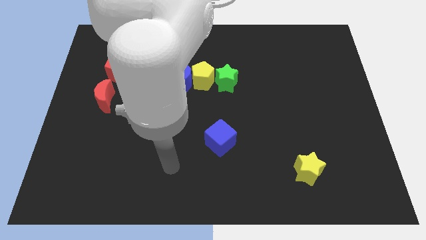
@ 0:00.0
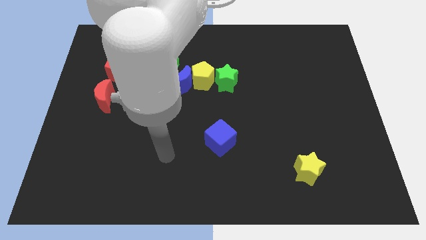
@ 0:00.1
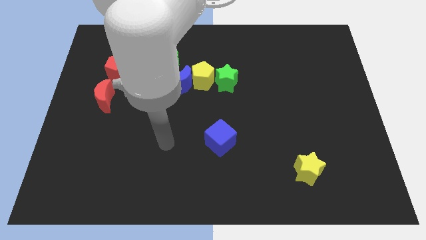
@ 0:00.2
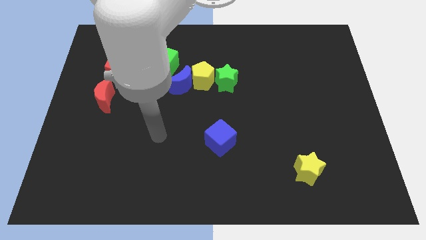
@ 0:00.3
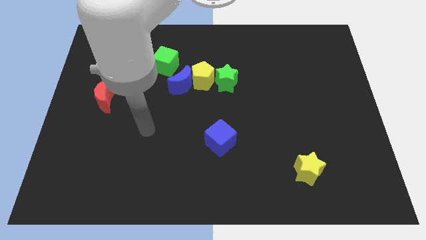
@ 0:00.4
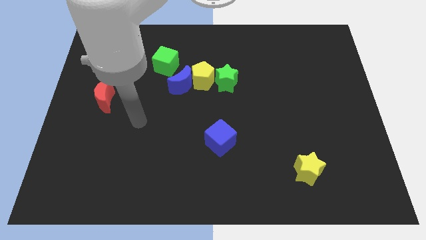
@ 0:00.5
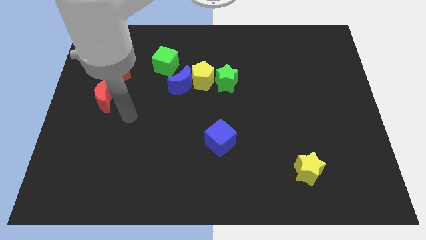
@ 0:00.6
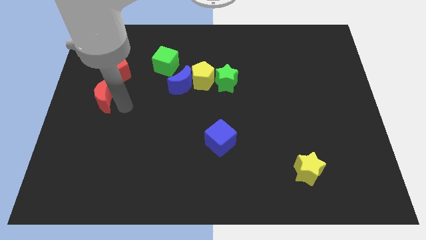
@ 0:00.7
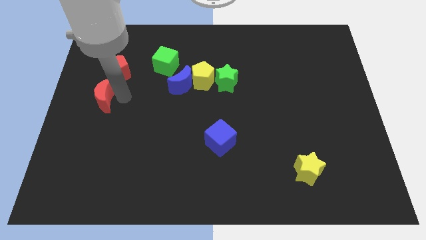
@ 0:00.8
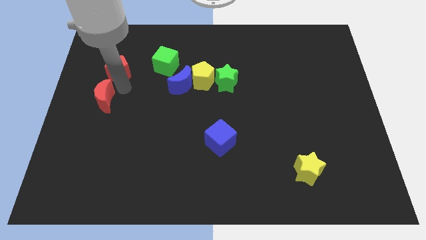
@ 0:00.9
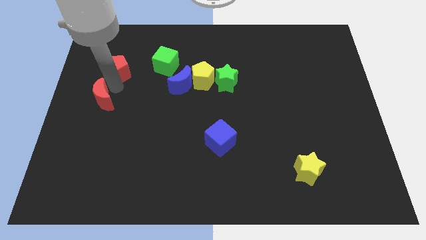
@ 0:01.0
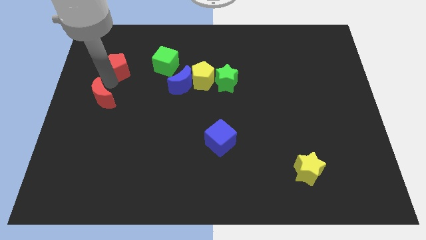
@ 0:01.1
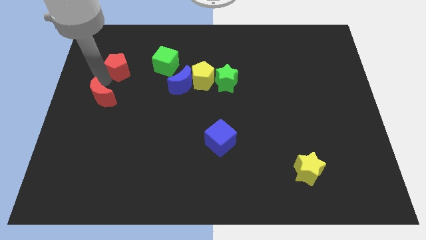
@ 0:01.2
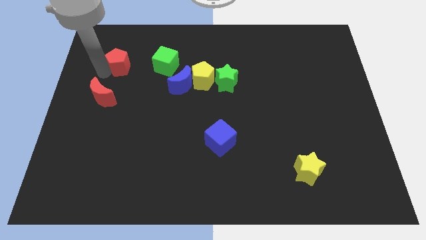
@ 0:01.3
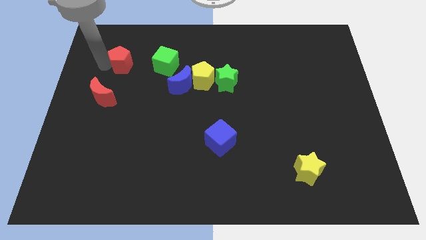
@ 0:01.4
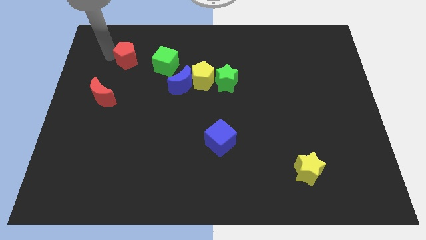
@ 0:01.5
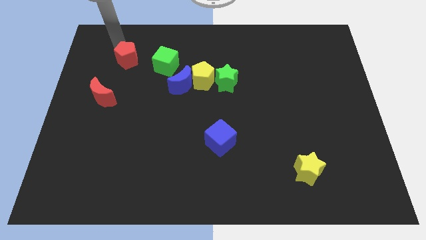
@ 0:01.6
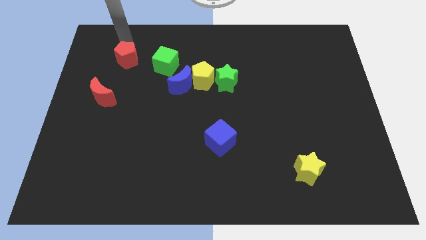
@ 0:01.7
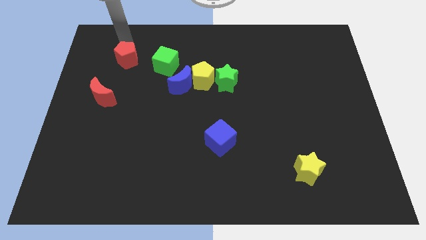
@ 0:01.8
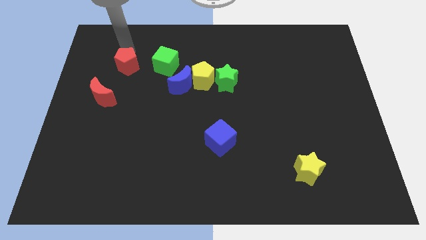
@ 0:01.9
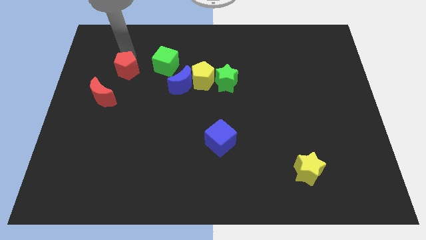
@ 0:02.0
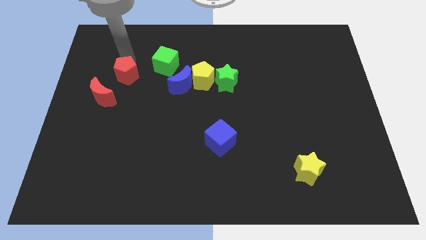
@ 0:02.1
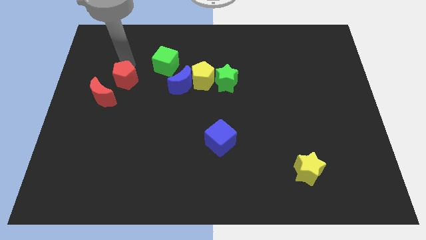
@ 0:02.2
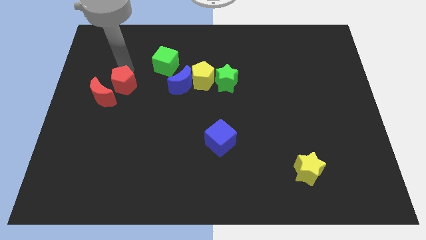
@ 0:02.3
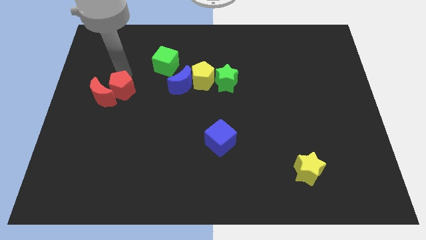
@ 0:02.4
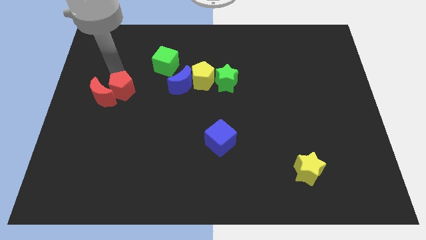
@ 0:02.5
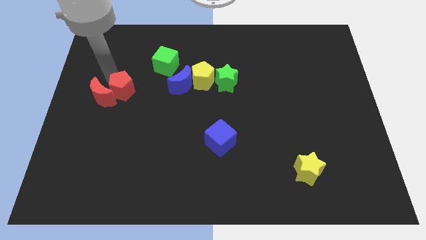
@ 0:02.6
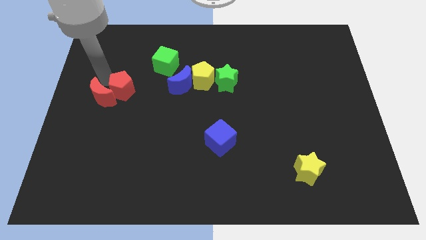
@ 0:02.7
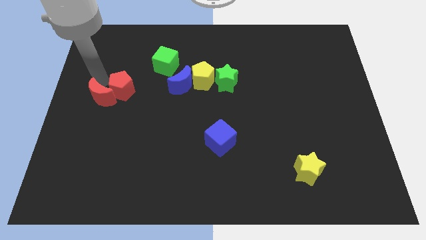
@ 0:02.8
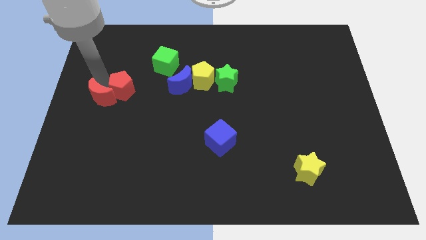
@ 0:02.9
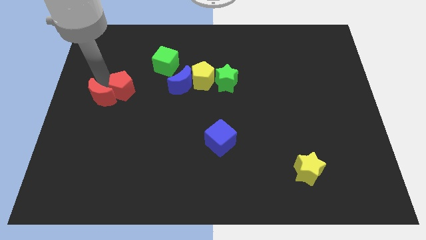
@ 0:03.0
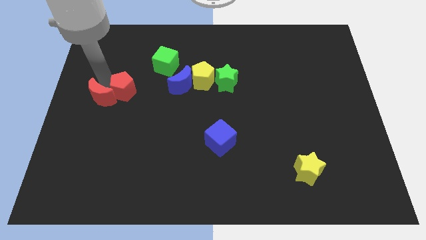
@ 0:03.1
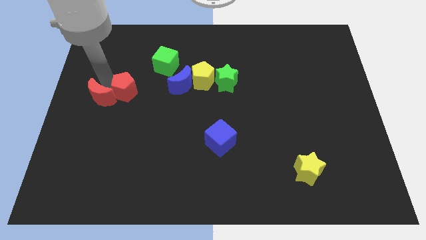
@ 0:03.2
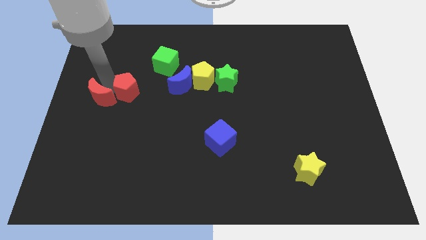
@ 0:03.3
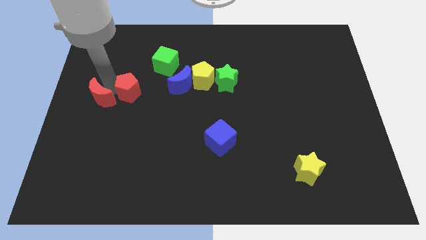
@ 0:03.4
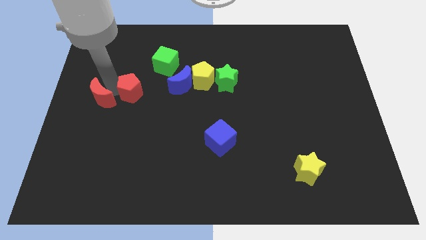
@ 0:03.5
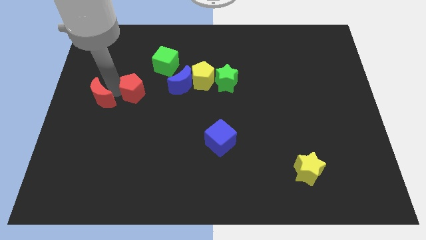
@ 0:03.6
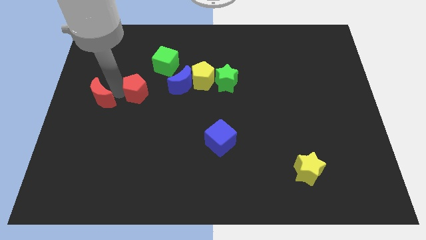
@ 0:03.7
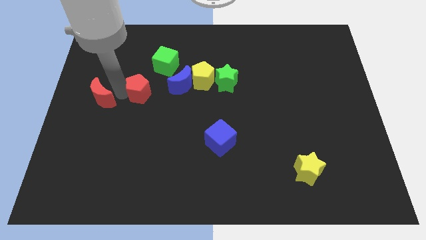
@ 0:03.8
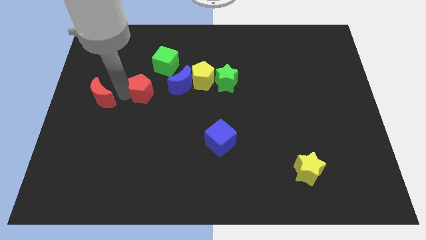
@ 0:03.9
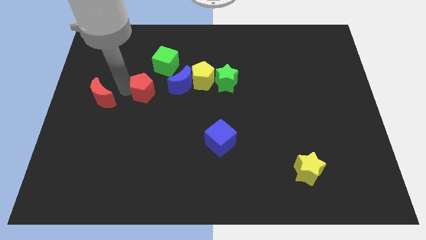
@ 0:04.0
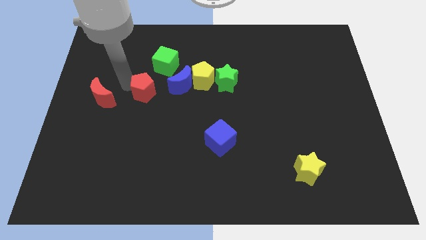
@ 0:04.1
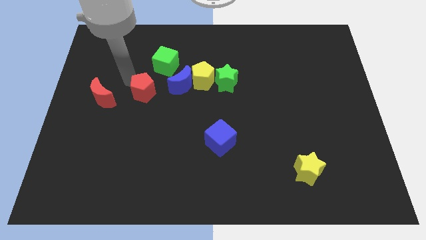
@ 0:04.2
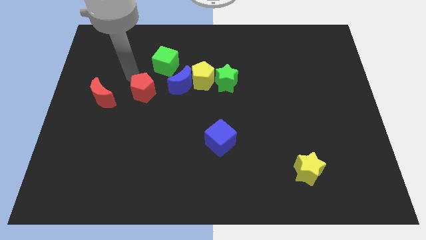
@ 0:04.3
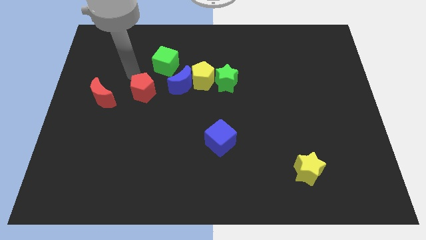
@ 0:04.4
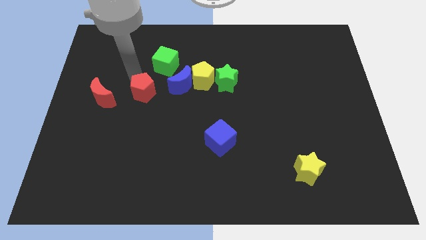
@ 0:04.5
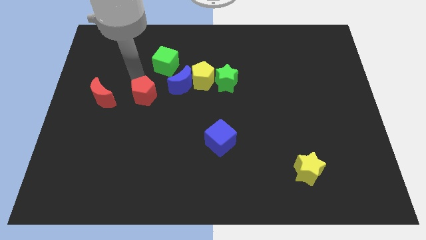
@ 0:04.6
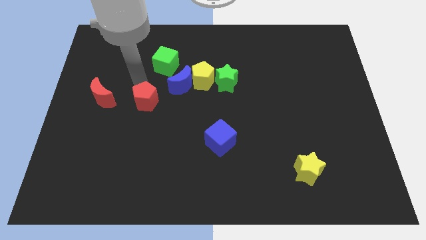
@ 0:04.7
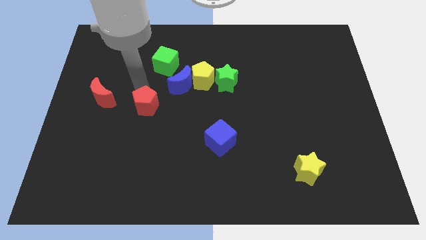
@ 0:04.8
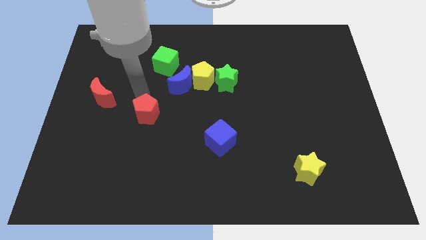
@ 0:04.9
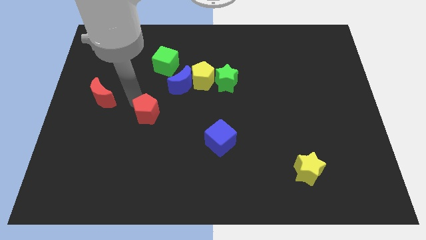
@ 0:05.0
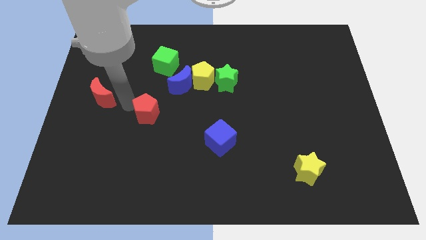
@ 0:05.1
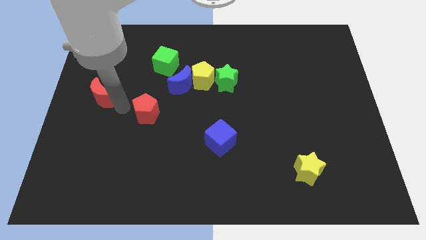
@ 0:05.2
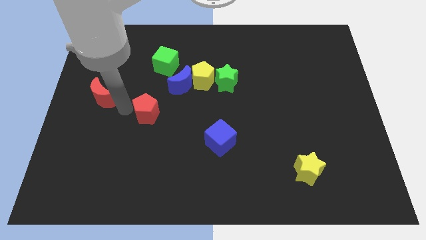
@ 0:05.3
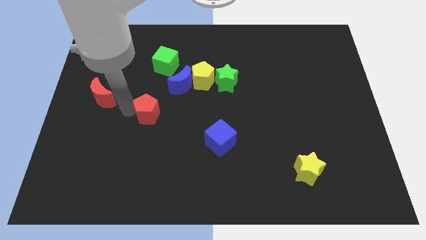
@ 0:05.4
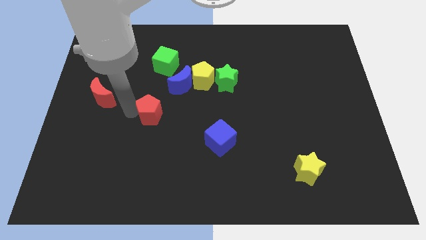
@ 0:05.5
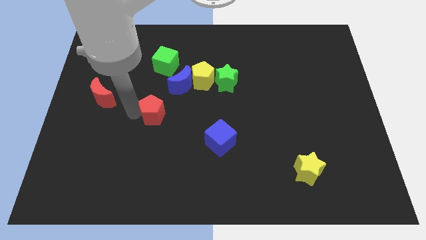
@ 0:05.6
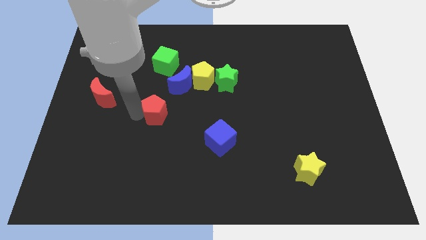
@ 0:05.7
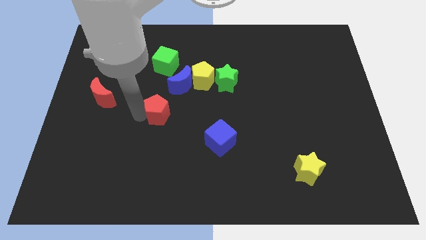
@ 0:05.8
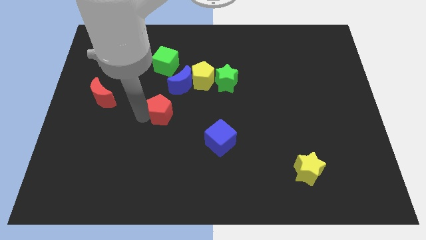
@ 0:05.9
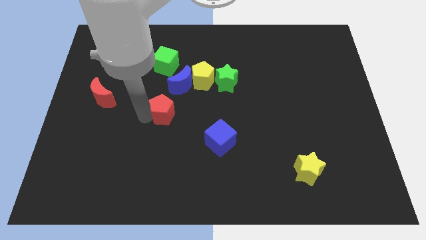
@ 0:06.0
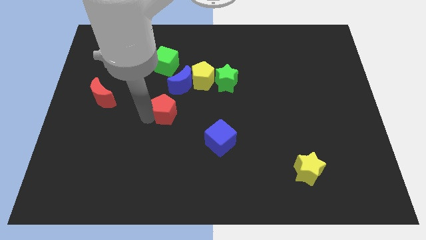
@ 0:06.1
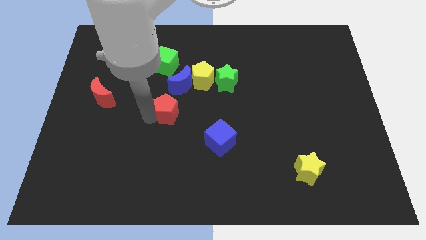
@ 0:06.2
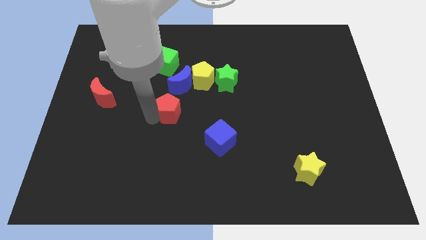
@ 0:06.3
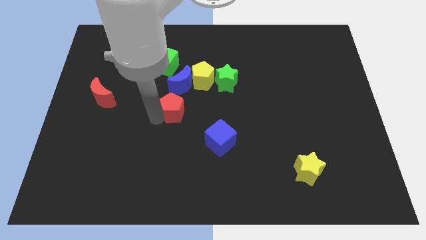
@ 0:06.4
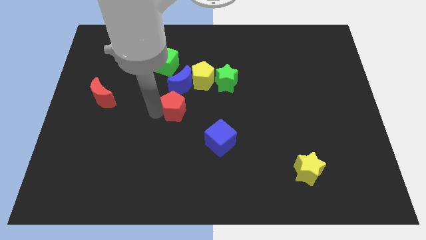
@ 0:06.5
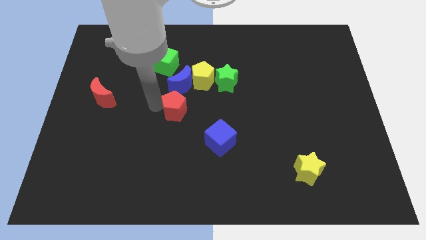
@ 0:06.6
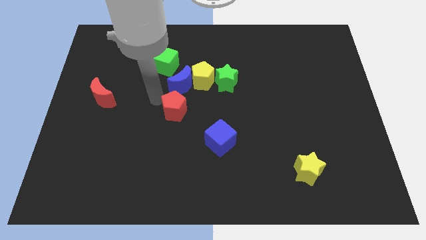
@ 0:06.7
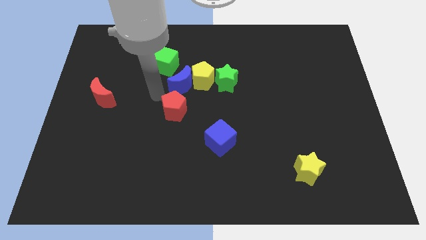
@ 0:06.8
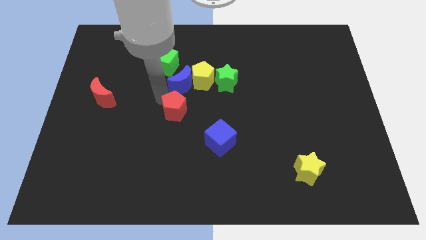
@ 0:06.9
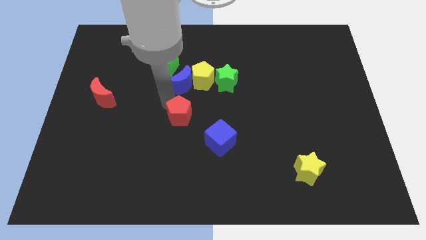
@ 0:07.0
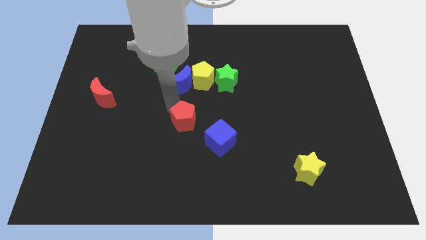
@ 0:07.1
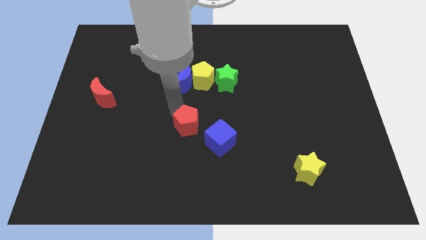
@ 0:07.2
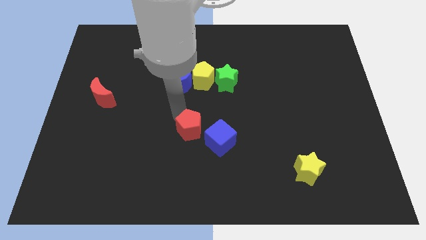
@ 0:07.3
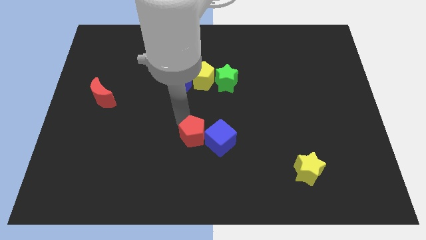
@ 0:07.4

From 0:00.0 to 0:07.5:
move the red pentagon close to the blue cube
